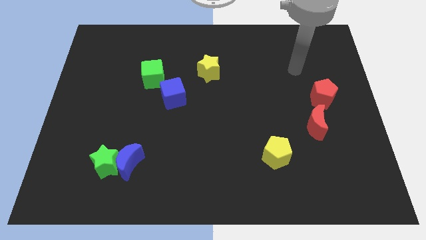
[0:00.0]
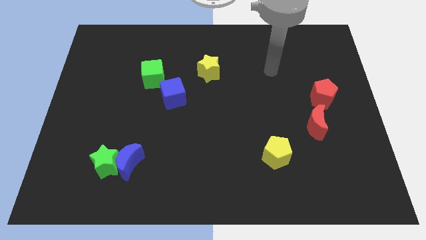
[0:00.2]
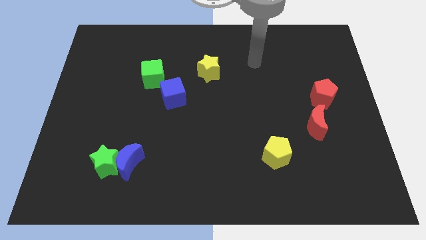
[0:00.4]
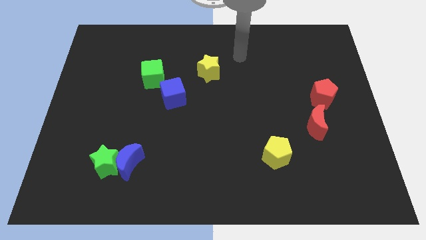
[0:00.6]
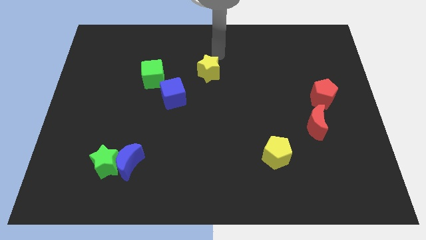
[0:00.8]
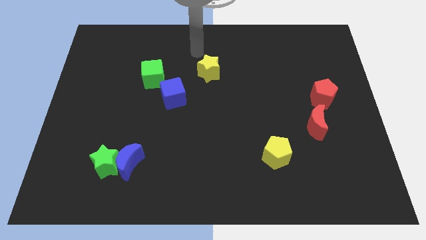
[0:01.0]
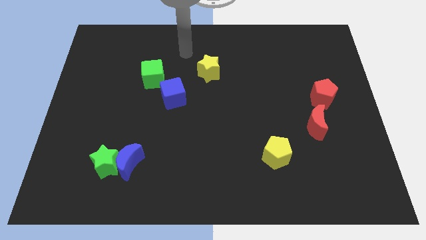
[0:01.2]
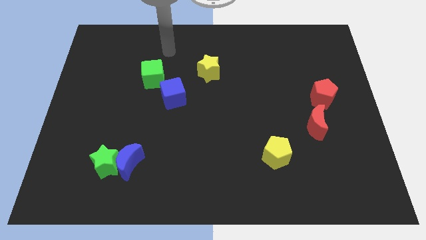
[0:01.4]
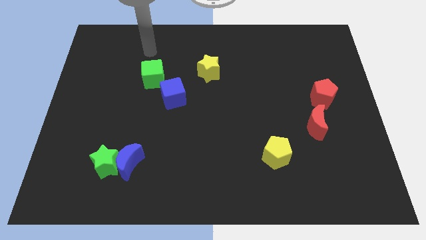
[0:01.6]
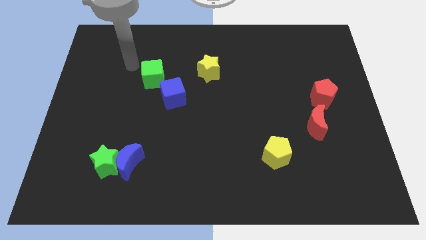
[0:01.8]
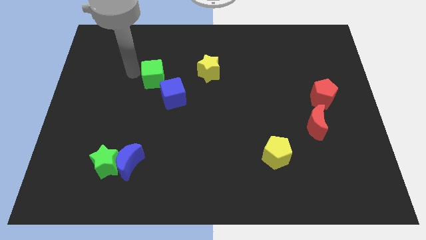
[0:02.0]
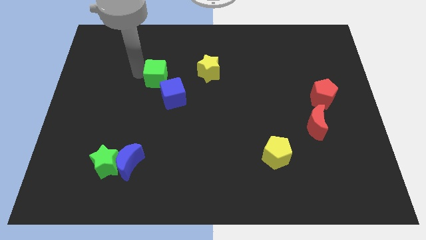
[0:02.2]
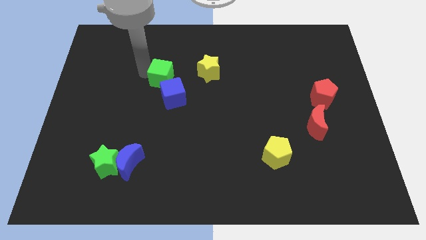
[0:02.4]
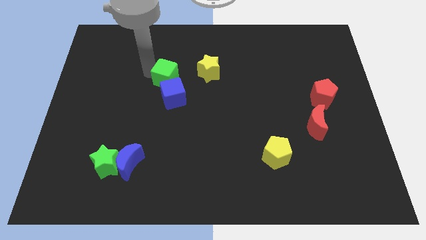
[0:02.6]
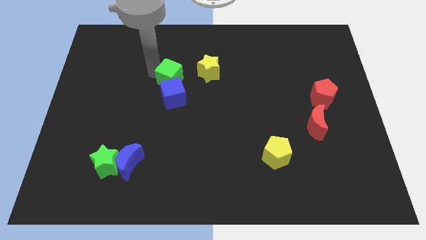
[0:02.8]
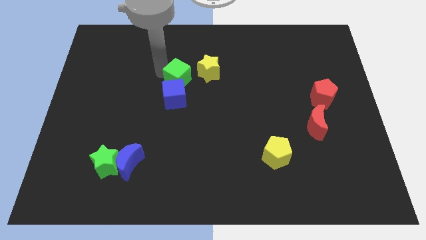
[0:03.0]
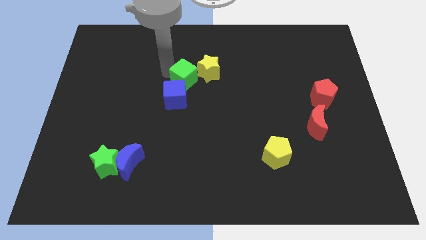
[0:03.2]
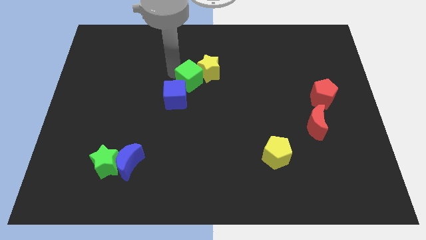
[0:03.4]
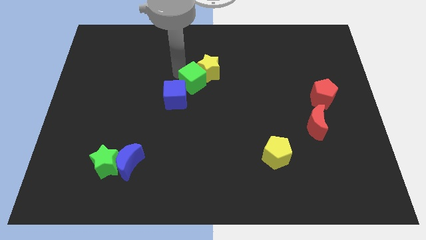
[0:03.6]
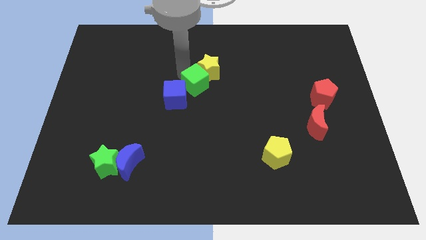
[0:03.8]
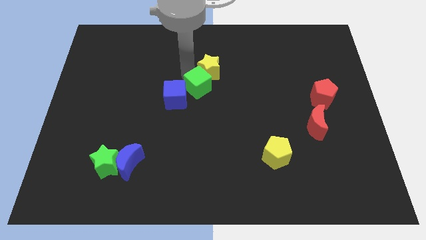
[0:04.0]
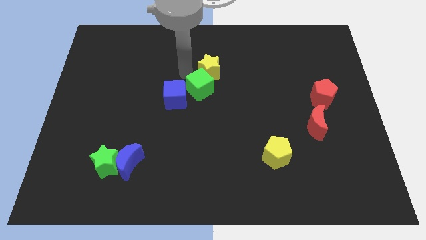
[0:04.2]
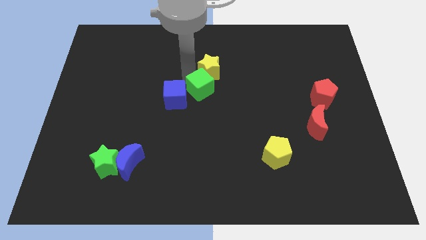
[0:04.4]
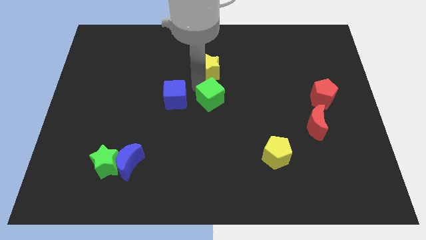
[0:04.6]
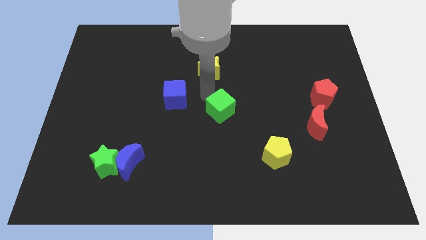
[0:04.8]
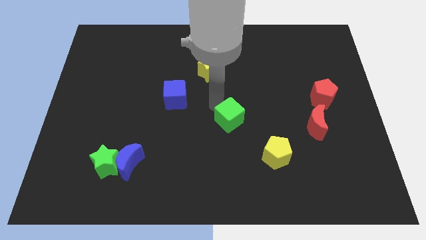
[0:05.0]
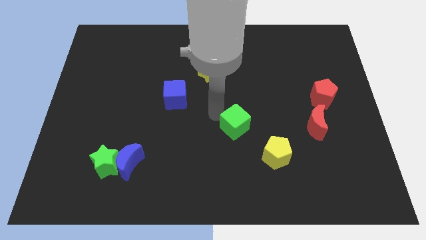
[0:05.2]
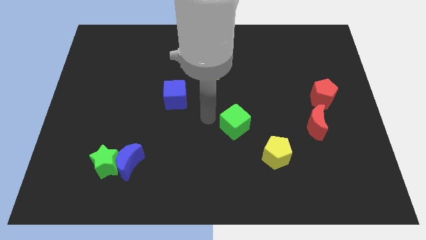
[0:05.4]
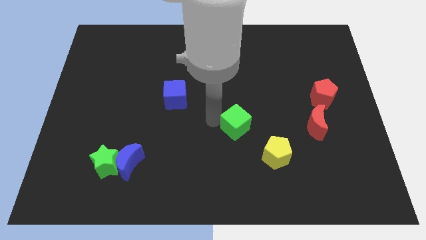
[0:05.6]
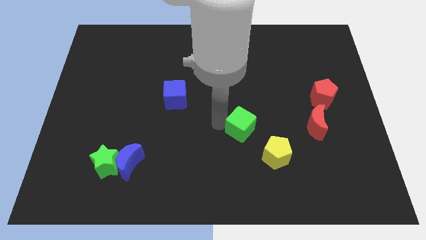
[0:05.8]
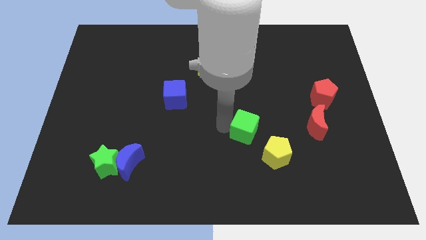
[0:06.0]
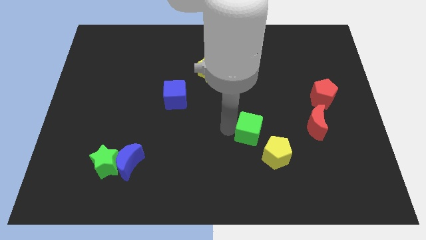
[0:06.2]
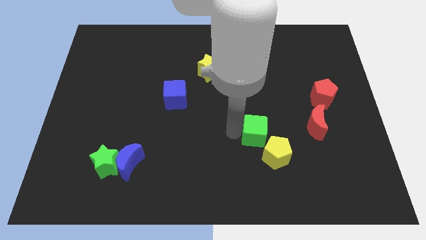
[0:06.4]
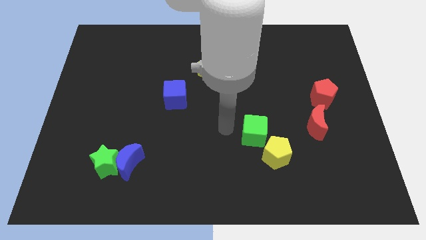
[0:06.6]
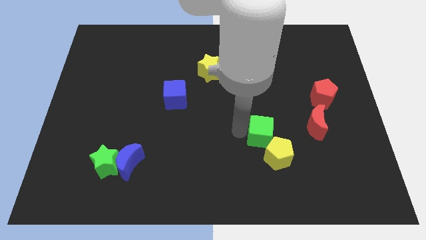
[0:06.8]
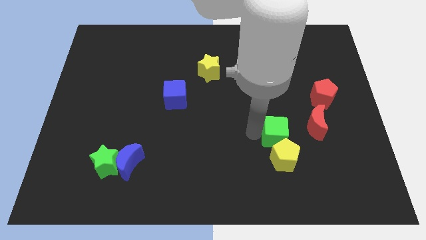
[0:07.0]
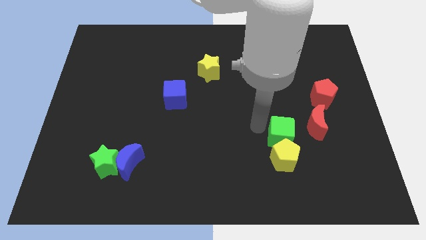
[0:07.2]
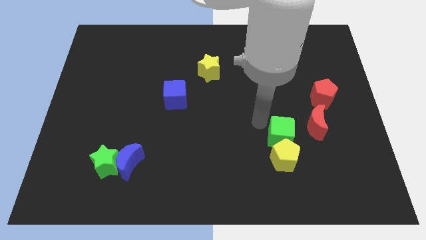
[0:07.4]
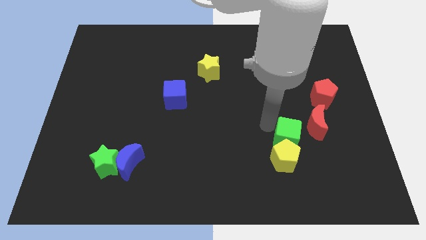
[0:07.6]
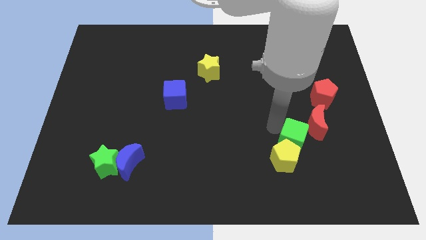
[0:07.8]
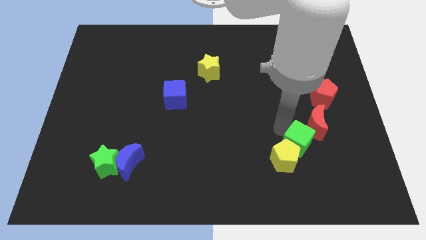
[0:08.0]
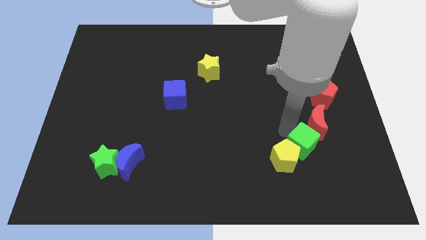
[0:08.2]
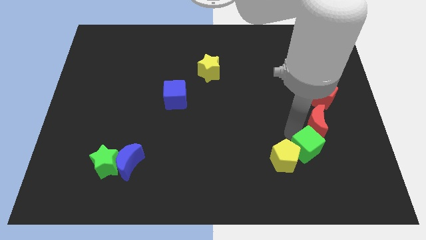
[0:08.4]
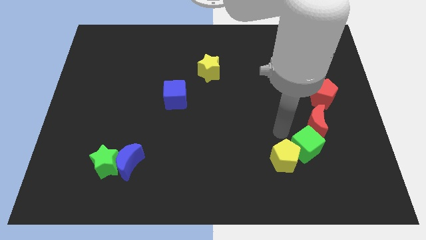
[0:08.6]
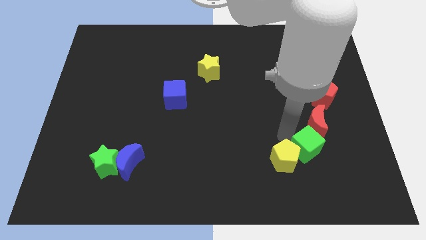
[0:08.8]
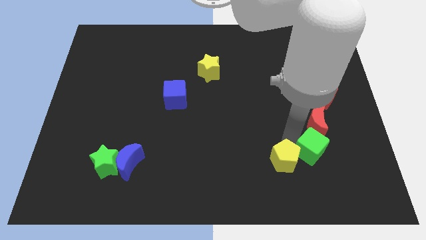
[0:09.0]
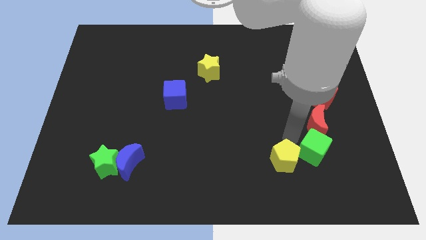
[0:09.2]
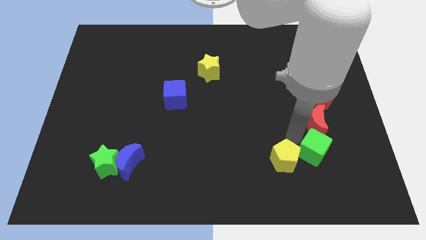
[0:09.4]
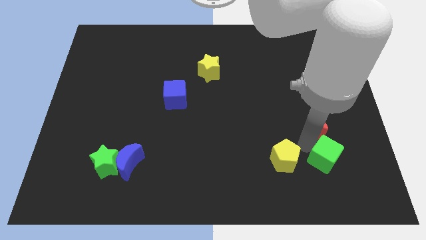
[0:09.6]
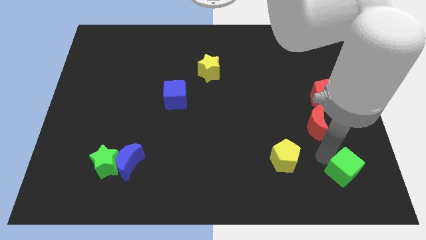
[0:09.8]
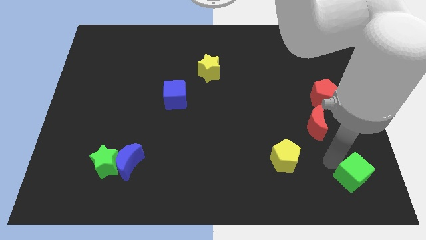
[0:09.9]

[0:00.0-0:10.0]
push the green cube to the bottom right corner

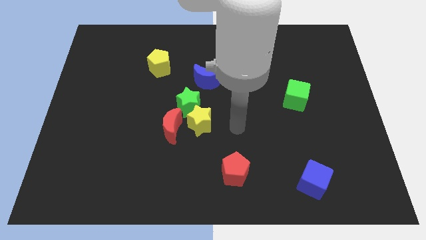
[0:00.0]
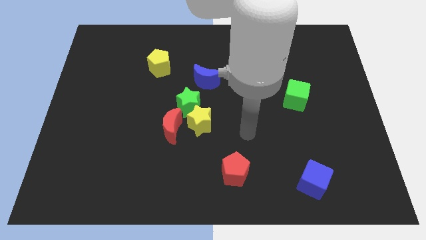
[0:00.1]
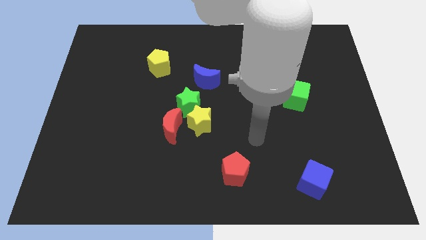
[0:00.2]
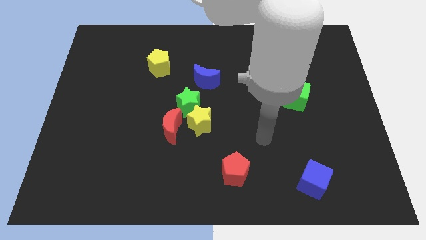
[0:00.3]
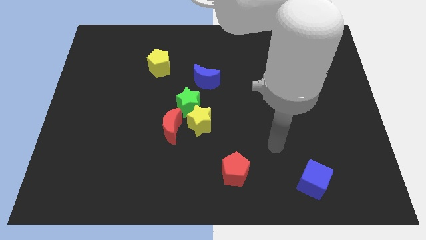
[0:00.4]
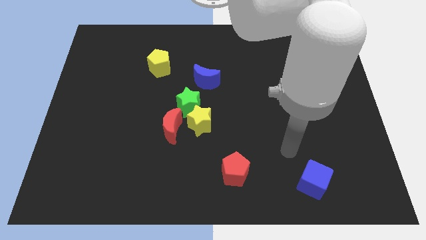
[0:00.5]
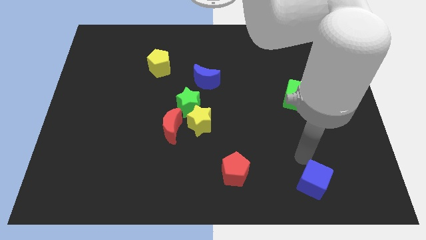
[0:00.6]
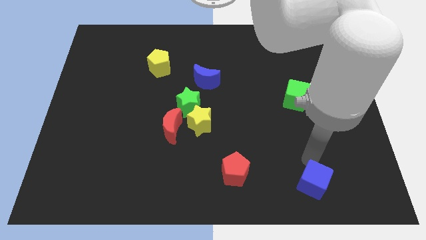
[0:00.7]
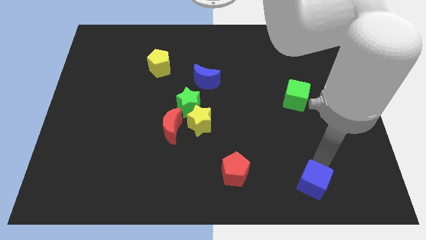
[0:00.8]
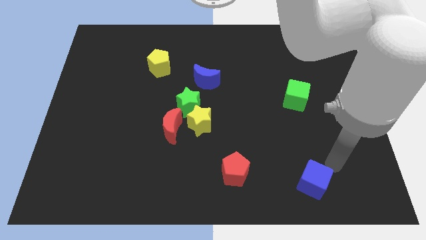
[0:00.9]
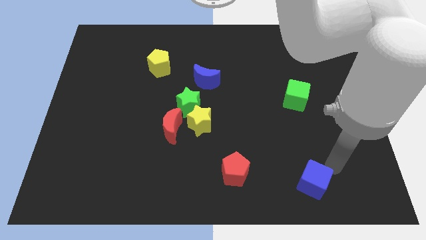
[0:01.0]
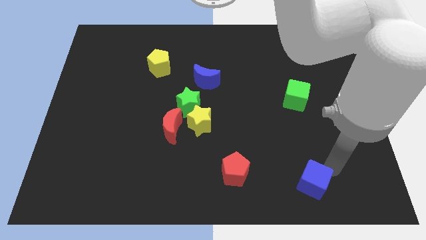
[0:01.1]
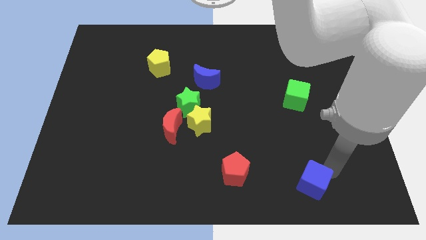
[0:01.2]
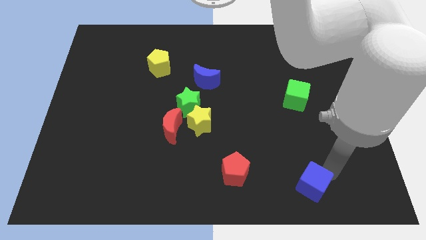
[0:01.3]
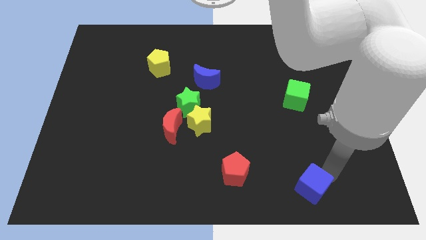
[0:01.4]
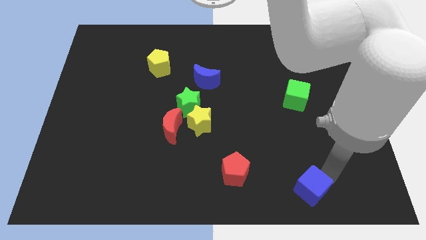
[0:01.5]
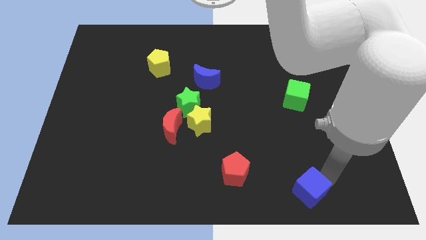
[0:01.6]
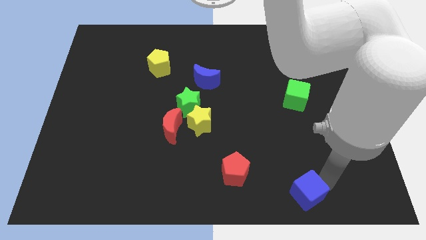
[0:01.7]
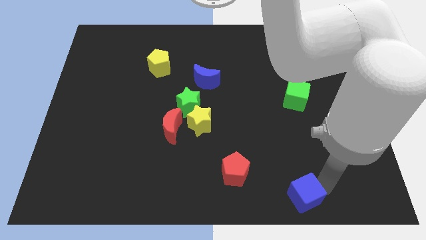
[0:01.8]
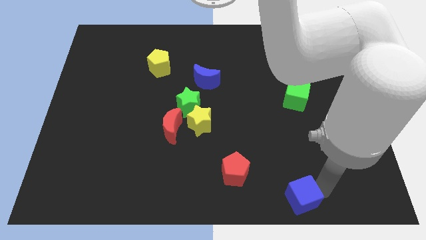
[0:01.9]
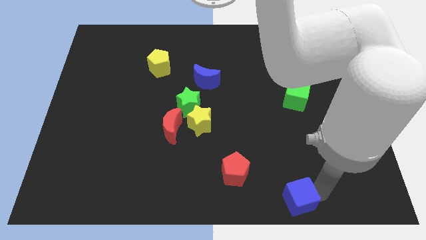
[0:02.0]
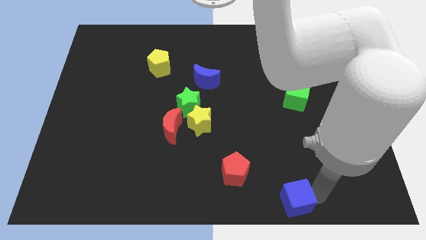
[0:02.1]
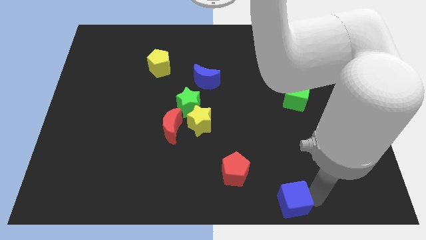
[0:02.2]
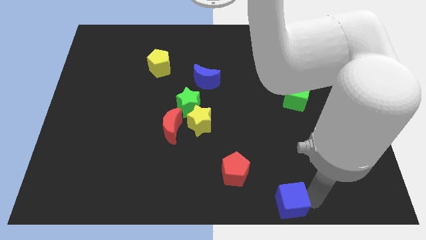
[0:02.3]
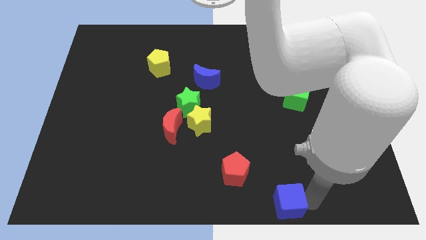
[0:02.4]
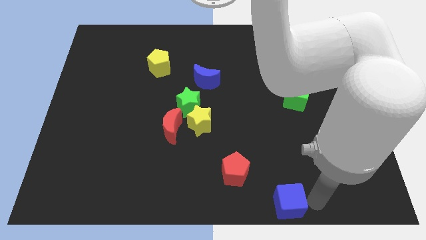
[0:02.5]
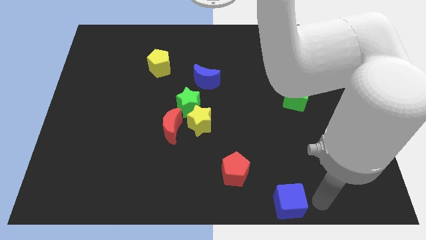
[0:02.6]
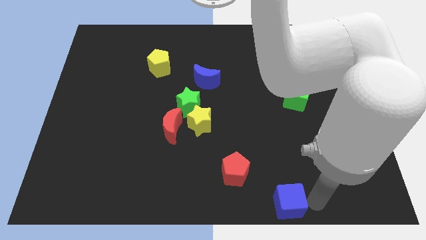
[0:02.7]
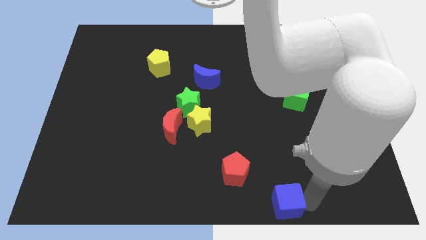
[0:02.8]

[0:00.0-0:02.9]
put the blue cube to the bottom

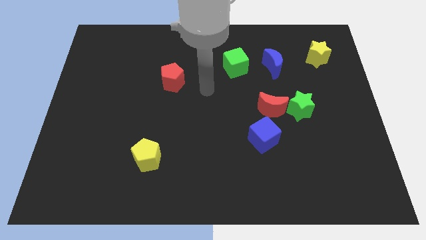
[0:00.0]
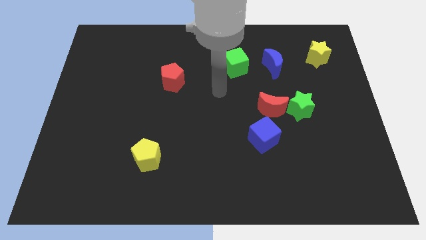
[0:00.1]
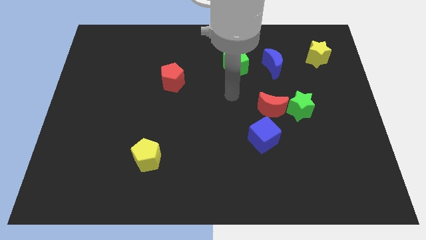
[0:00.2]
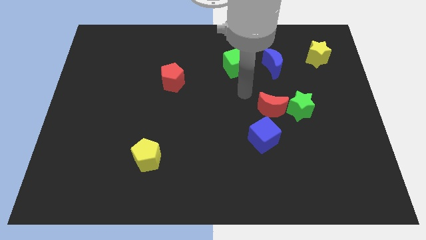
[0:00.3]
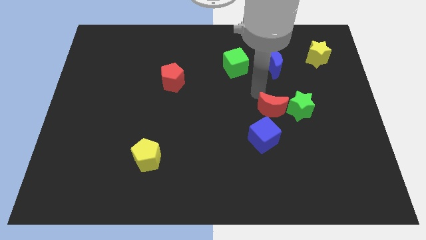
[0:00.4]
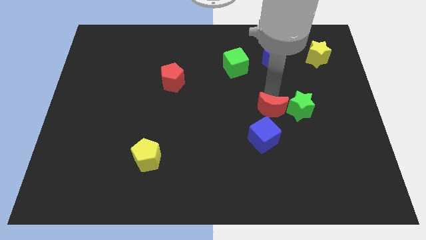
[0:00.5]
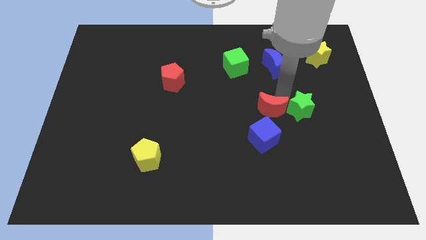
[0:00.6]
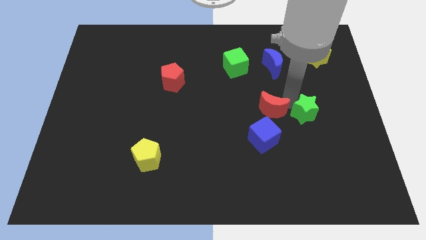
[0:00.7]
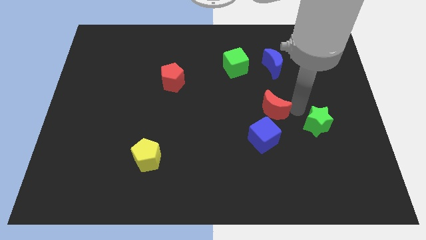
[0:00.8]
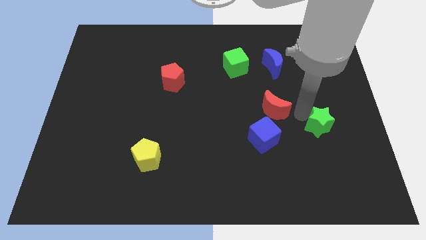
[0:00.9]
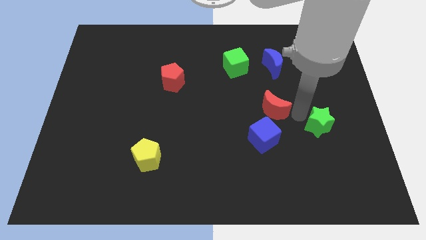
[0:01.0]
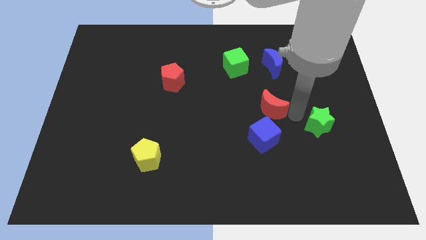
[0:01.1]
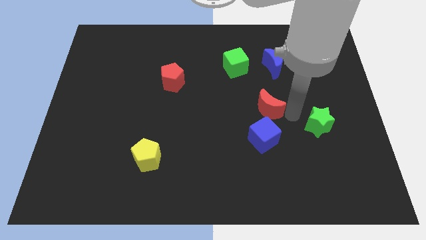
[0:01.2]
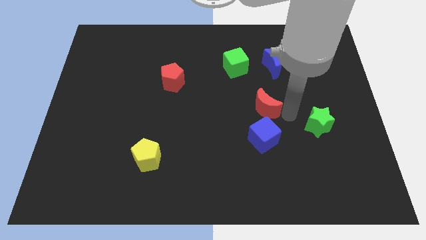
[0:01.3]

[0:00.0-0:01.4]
move the red moon to the center of the board
